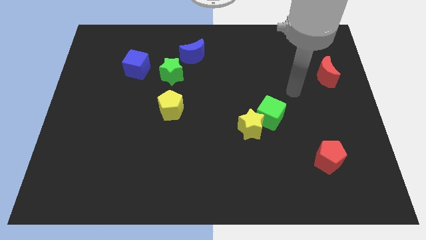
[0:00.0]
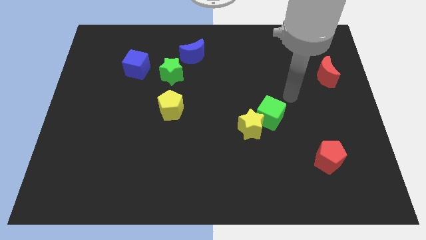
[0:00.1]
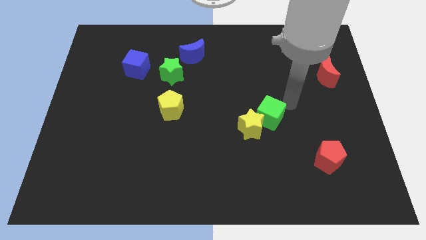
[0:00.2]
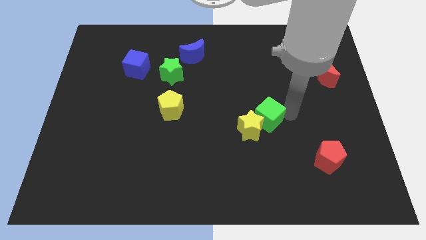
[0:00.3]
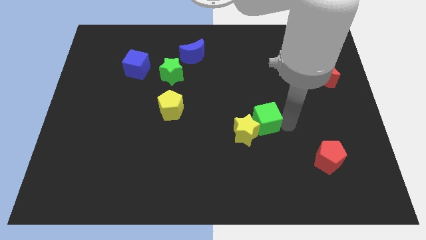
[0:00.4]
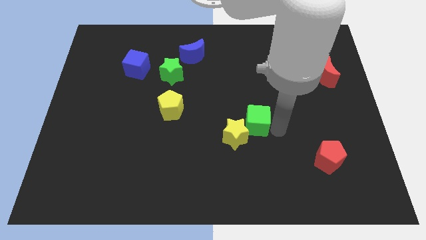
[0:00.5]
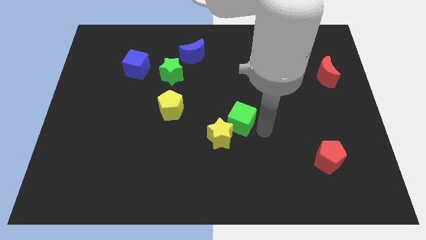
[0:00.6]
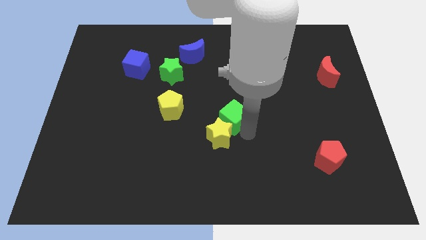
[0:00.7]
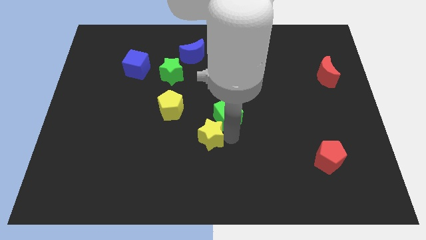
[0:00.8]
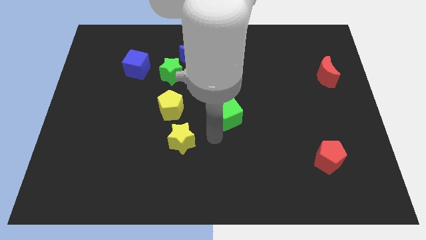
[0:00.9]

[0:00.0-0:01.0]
pull the green cube apart from the yellow star

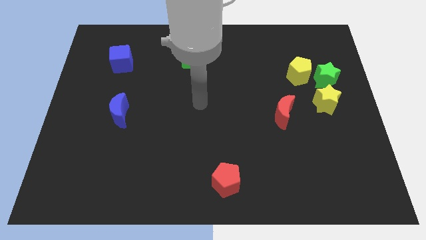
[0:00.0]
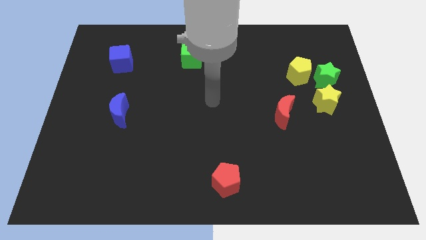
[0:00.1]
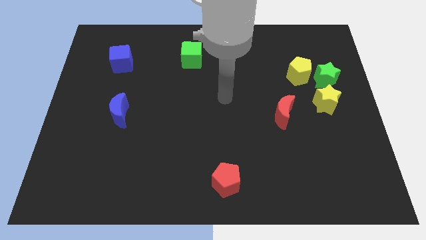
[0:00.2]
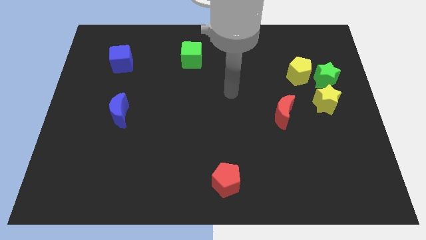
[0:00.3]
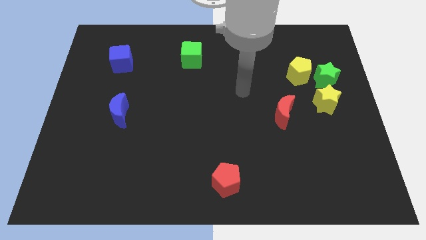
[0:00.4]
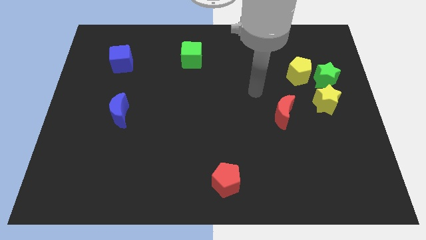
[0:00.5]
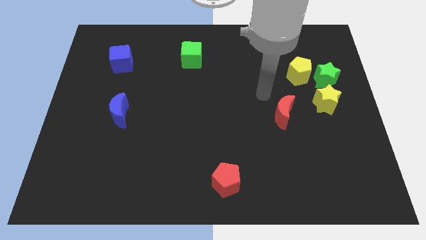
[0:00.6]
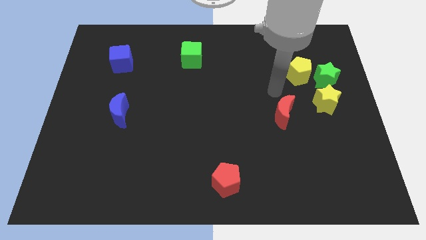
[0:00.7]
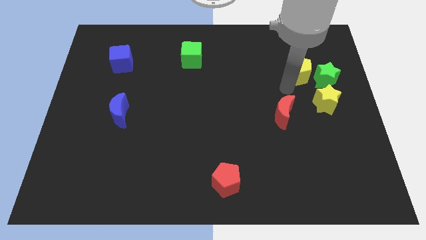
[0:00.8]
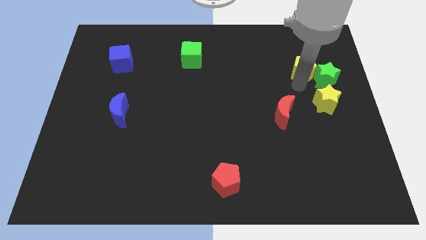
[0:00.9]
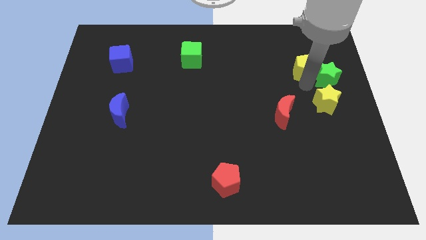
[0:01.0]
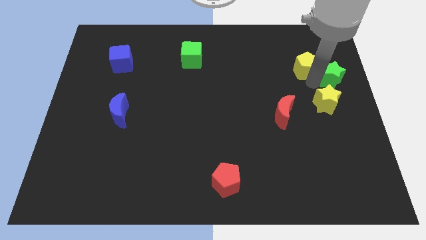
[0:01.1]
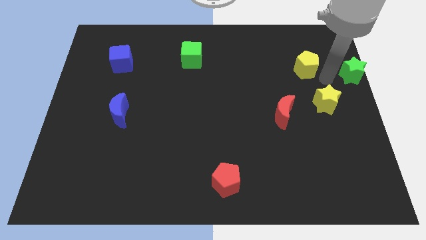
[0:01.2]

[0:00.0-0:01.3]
separate the yellow pentagon from the green star

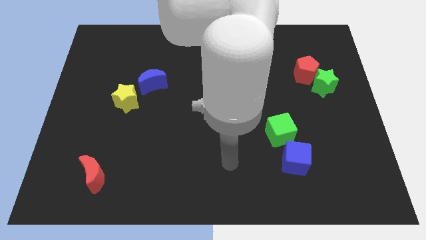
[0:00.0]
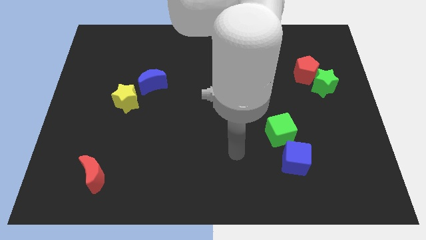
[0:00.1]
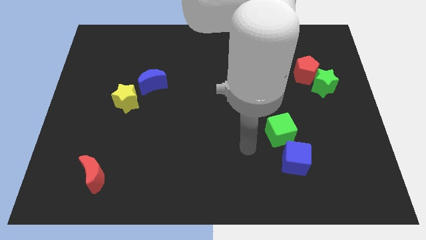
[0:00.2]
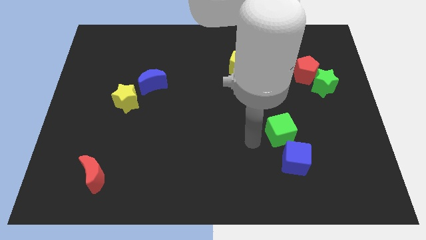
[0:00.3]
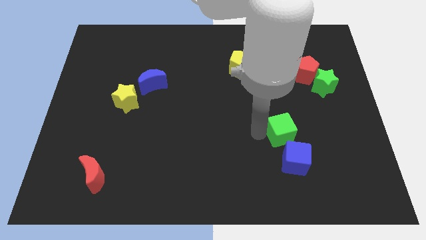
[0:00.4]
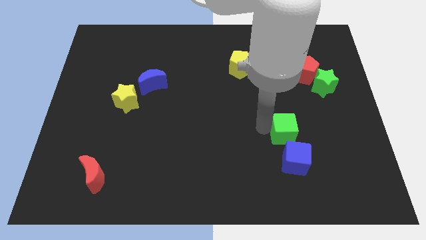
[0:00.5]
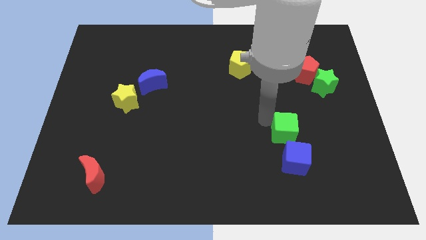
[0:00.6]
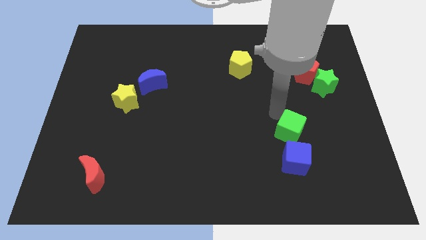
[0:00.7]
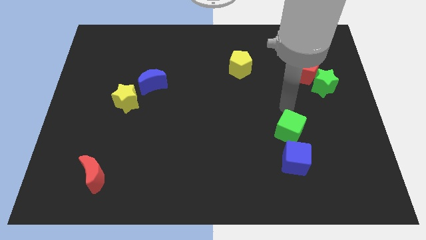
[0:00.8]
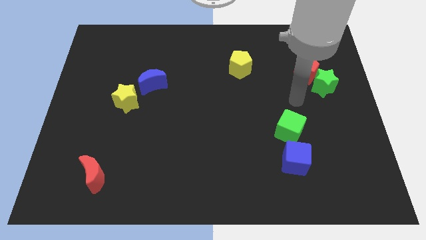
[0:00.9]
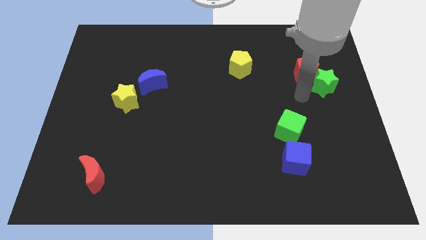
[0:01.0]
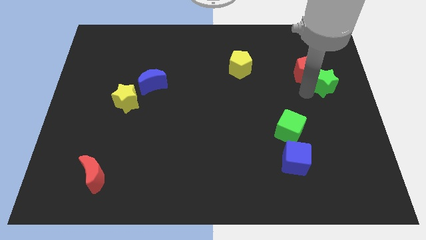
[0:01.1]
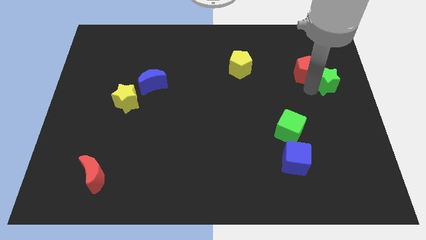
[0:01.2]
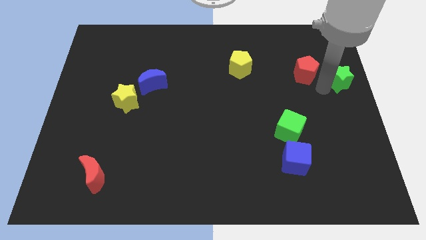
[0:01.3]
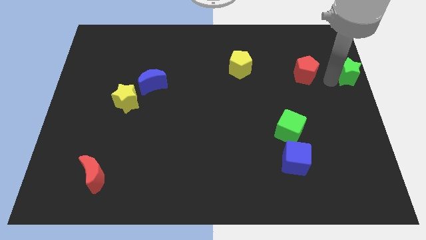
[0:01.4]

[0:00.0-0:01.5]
pull the red pentagon apart from the green star

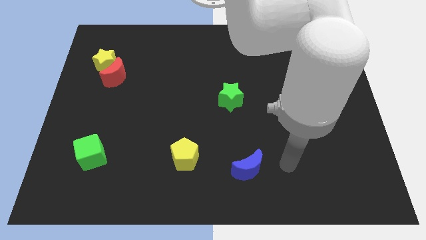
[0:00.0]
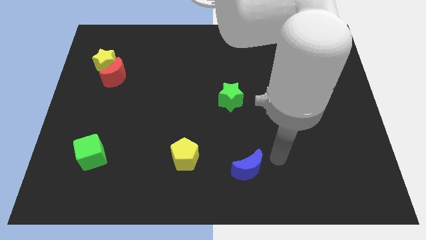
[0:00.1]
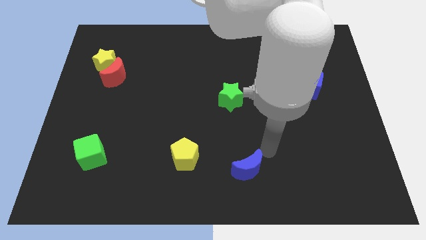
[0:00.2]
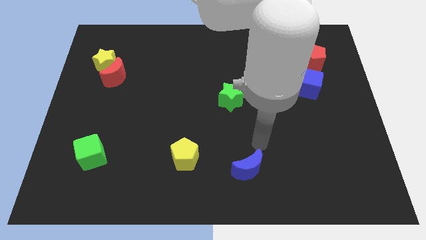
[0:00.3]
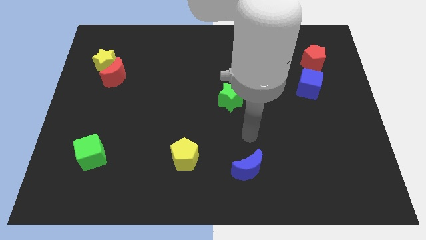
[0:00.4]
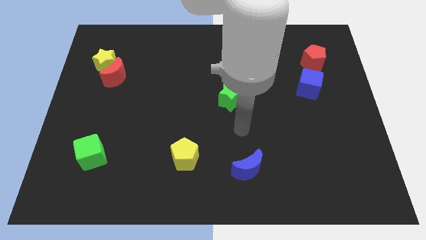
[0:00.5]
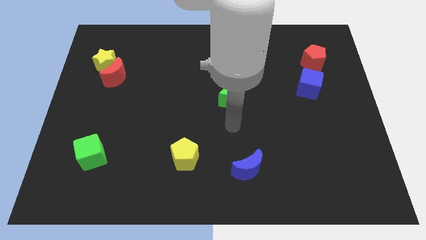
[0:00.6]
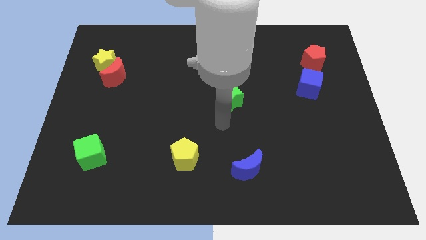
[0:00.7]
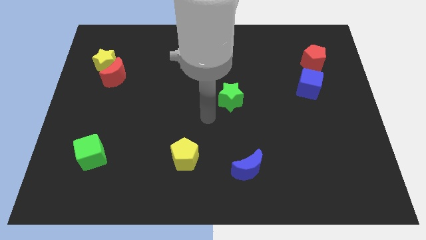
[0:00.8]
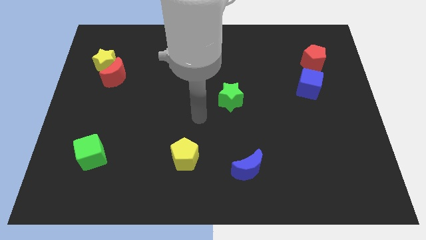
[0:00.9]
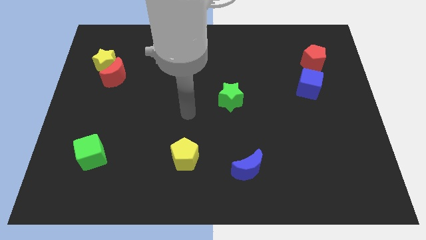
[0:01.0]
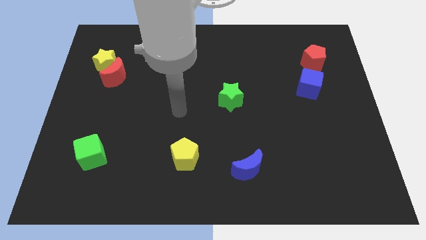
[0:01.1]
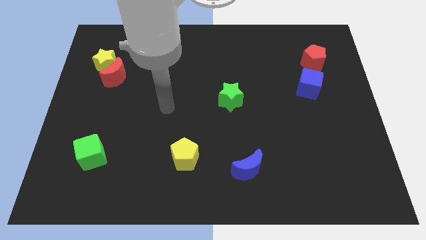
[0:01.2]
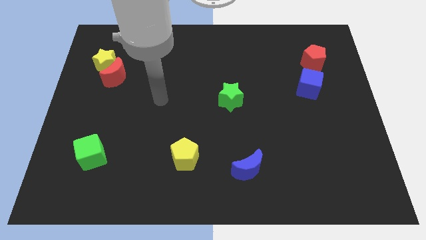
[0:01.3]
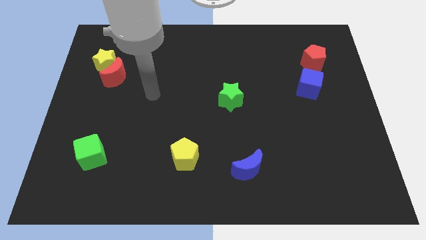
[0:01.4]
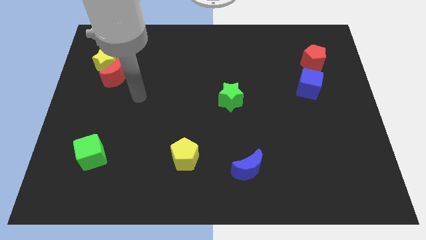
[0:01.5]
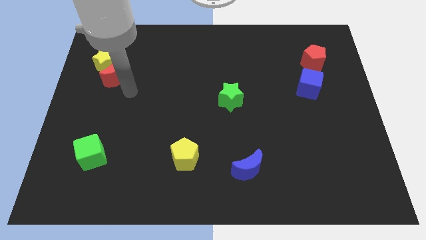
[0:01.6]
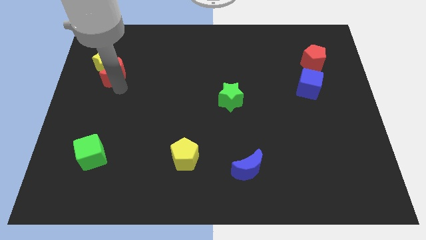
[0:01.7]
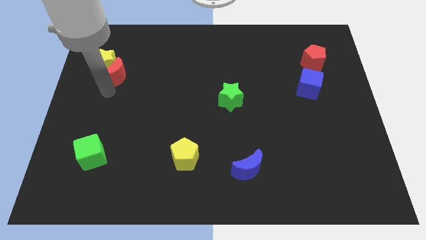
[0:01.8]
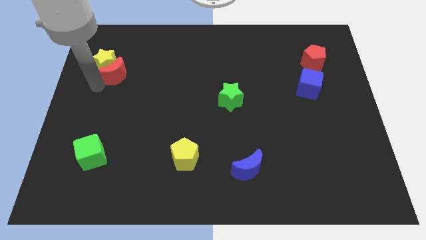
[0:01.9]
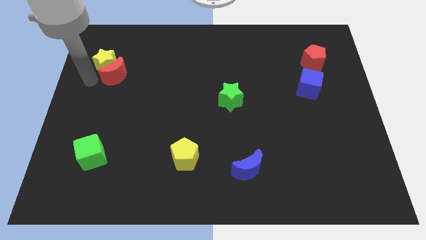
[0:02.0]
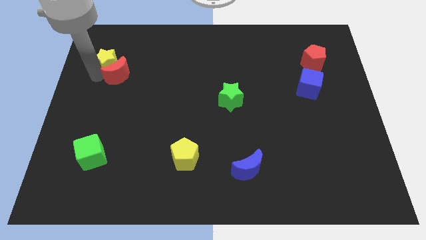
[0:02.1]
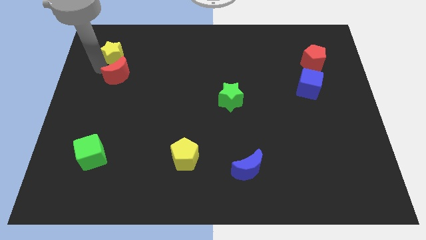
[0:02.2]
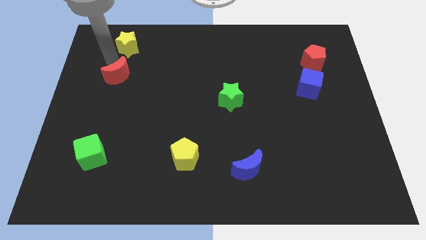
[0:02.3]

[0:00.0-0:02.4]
separate the red moon from the yellow star

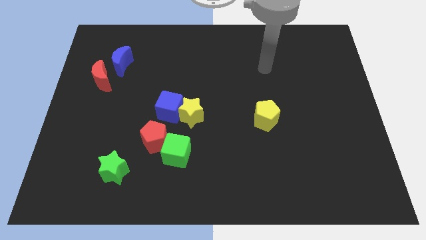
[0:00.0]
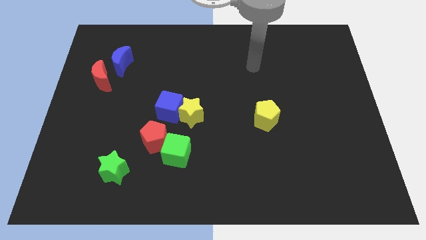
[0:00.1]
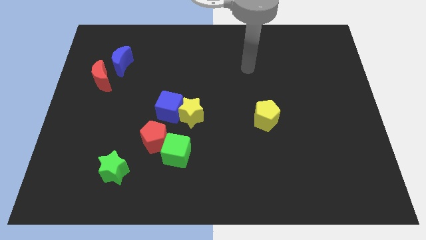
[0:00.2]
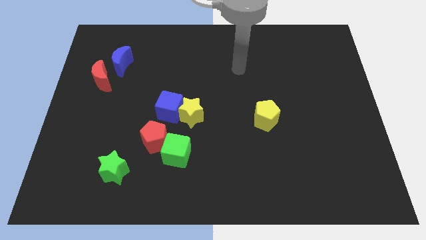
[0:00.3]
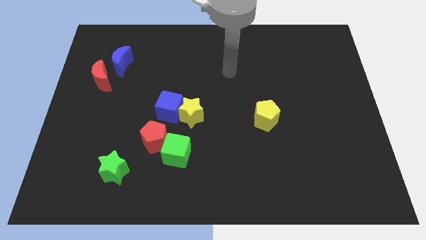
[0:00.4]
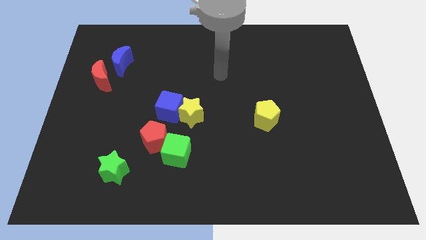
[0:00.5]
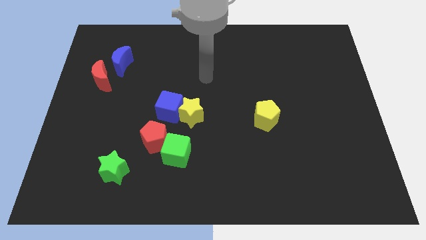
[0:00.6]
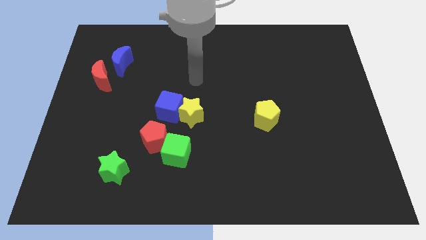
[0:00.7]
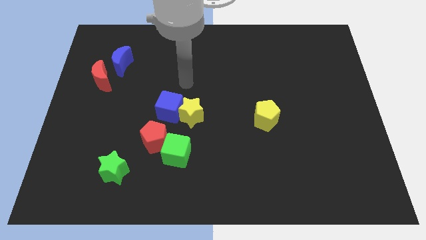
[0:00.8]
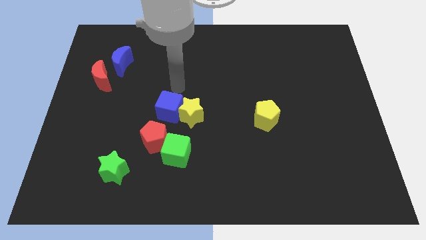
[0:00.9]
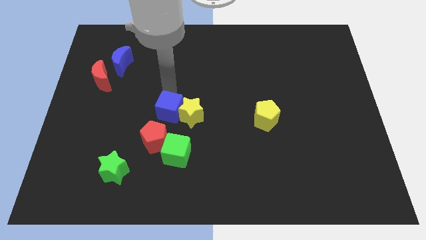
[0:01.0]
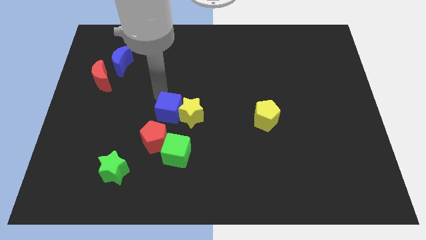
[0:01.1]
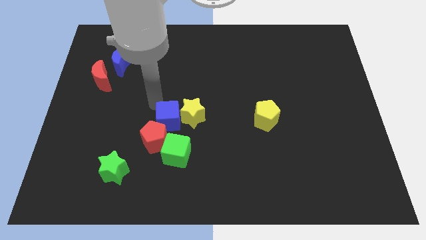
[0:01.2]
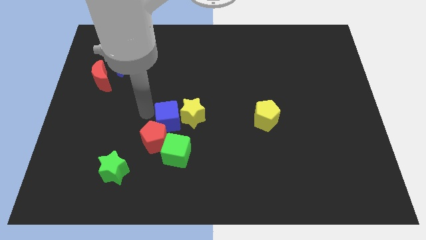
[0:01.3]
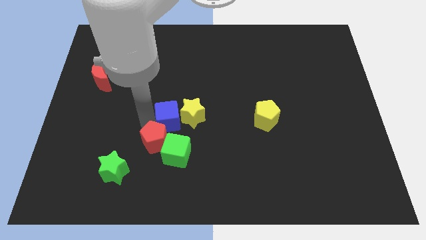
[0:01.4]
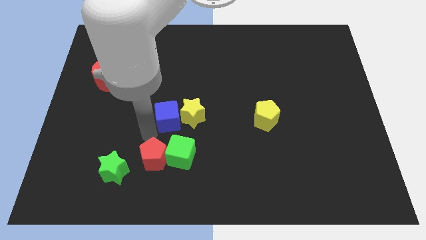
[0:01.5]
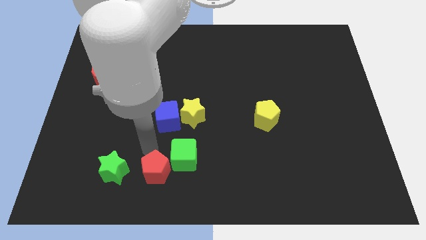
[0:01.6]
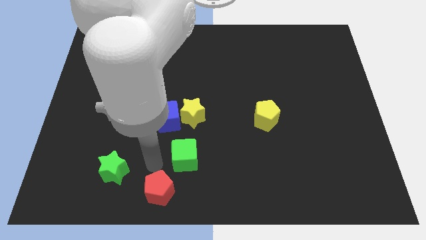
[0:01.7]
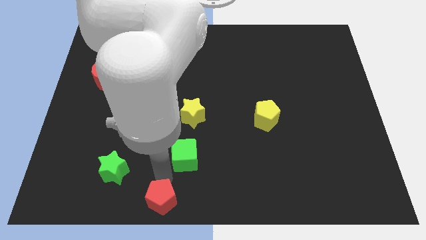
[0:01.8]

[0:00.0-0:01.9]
separate the green cube from the red pentagon

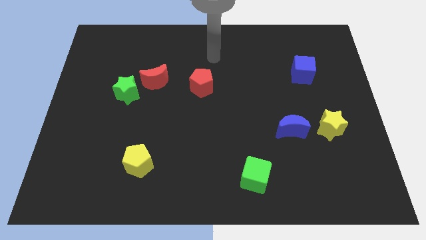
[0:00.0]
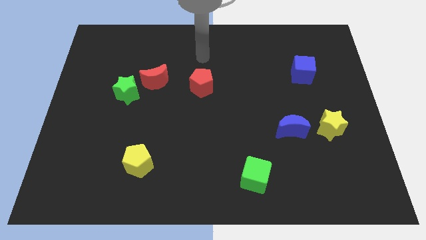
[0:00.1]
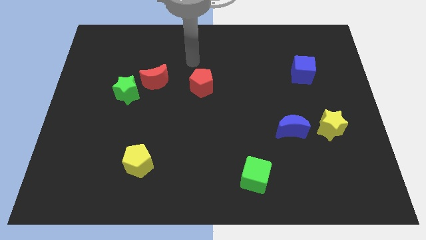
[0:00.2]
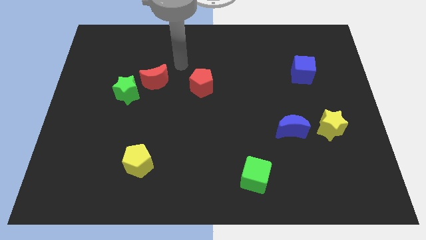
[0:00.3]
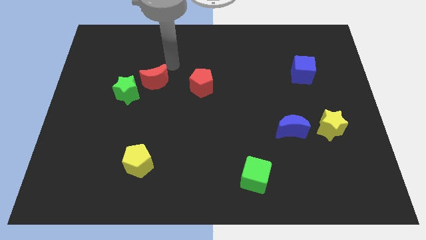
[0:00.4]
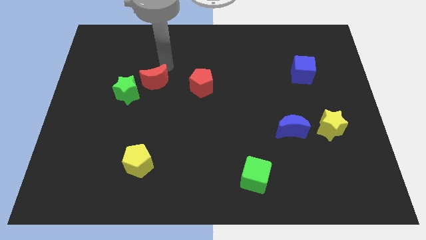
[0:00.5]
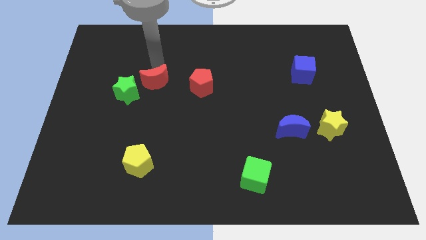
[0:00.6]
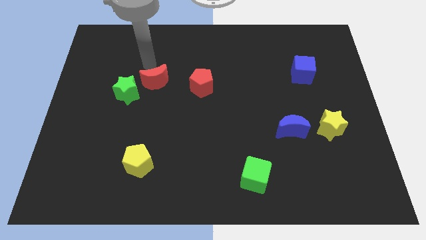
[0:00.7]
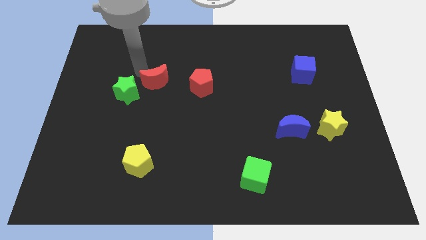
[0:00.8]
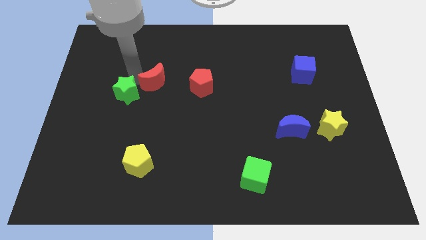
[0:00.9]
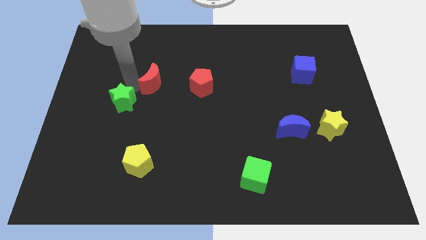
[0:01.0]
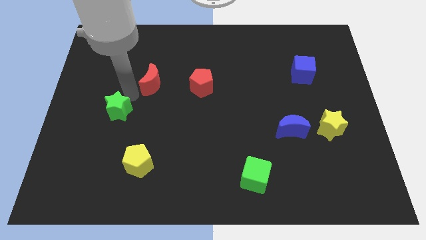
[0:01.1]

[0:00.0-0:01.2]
separate the red moon from the green star
